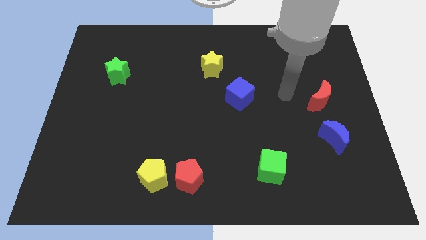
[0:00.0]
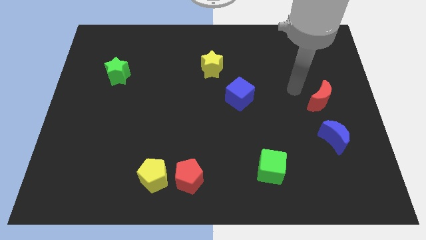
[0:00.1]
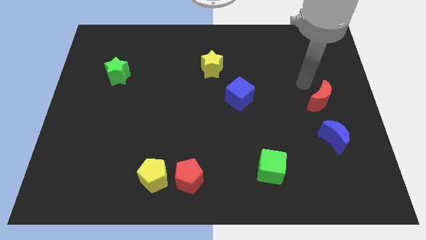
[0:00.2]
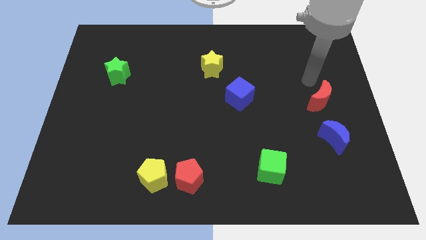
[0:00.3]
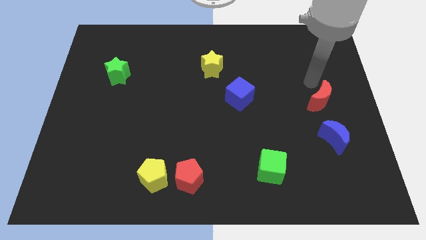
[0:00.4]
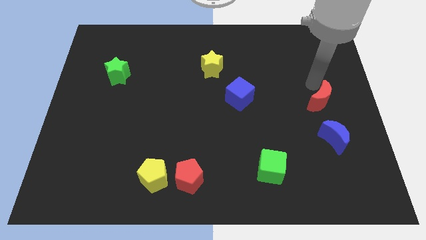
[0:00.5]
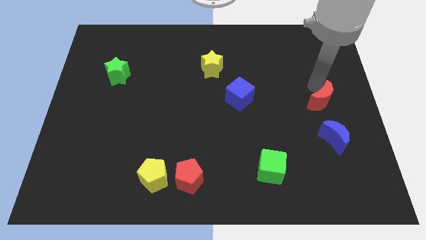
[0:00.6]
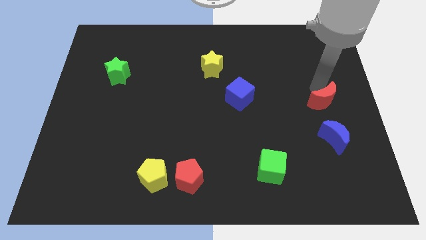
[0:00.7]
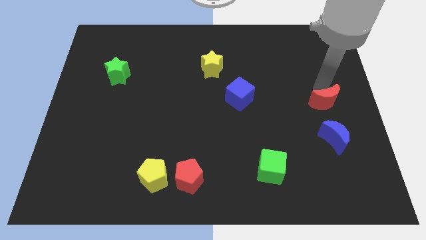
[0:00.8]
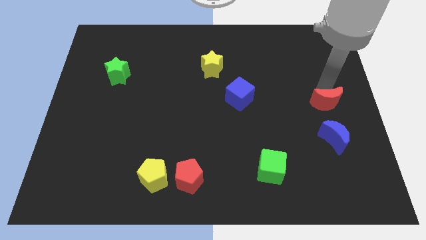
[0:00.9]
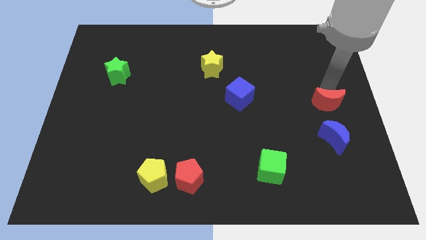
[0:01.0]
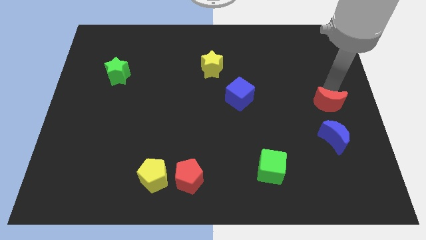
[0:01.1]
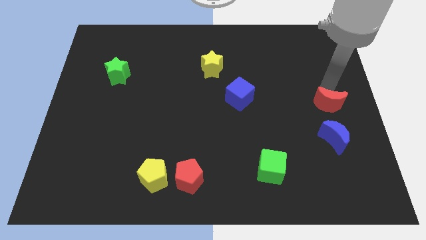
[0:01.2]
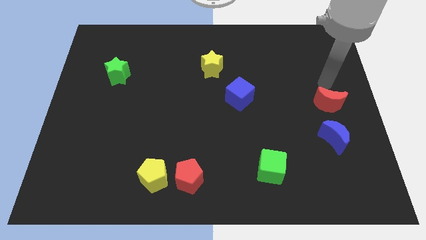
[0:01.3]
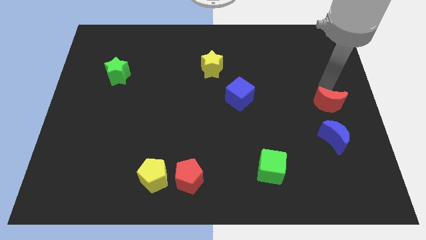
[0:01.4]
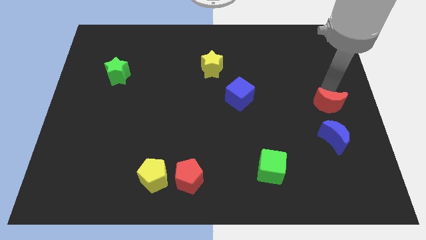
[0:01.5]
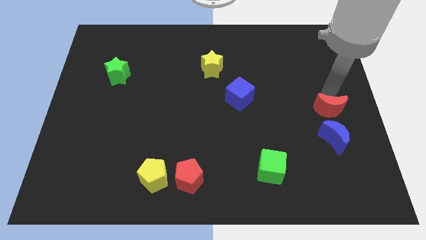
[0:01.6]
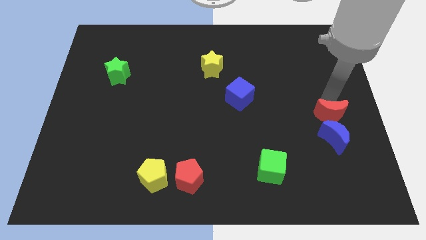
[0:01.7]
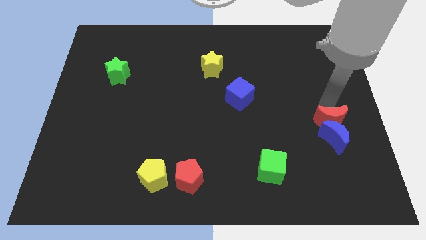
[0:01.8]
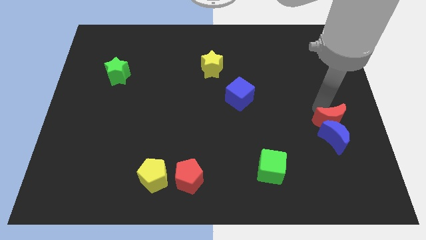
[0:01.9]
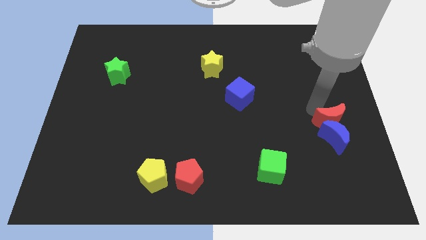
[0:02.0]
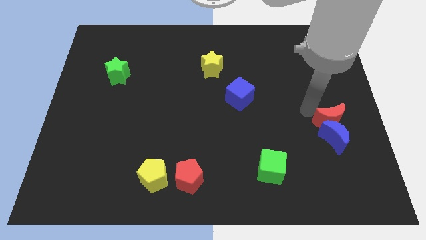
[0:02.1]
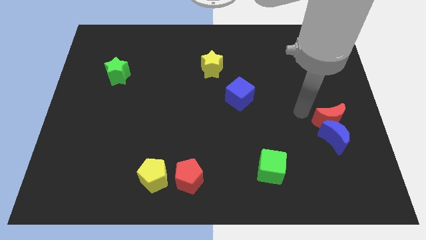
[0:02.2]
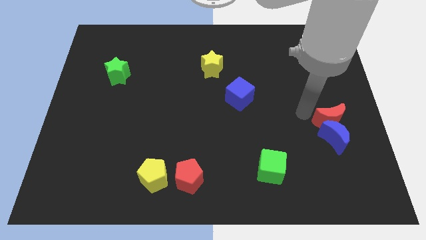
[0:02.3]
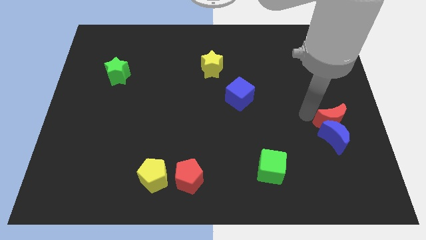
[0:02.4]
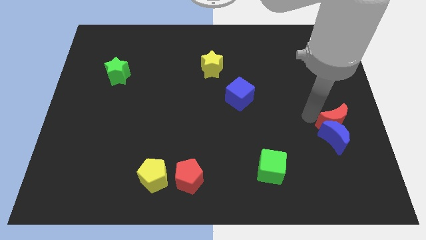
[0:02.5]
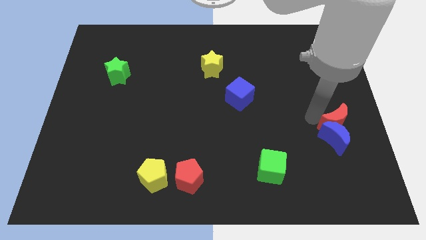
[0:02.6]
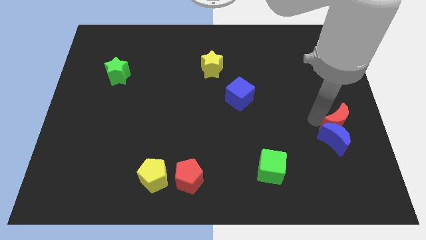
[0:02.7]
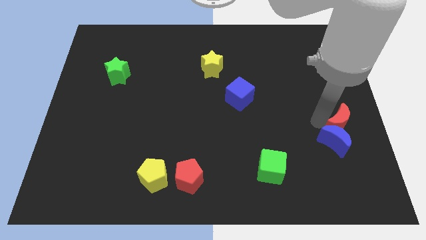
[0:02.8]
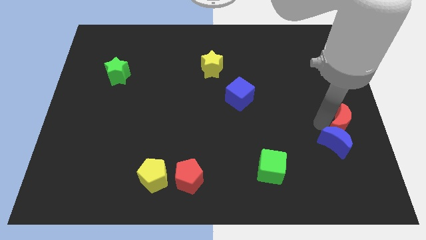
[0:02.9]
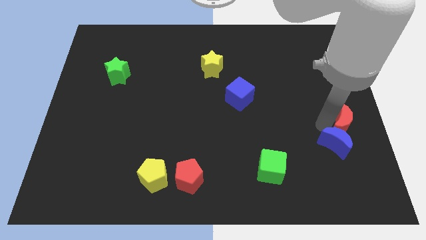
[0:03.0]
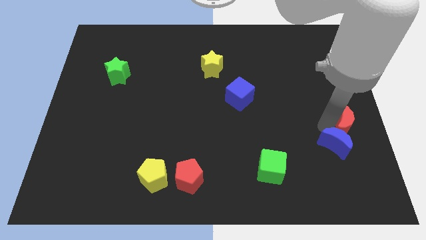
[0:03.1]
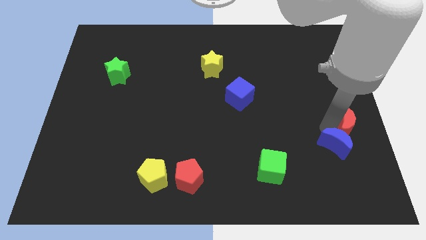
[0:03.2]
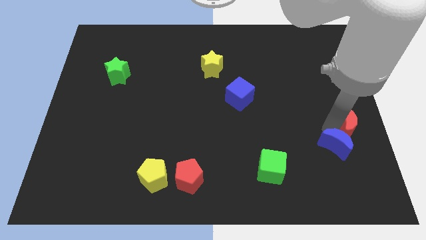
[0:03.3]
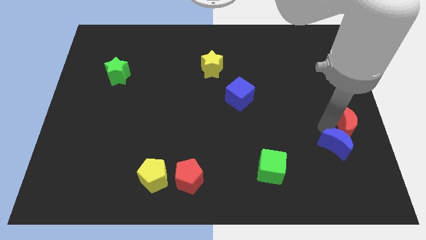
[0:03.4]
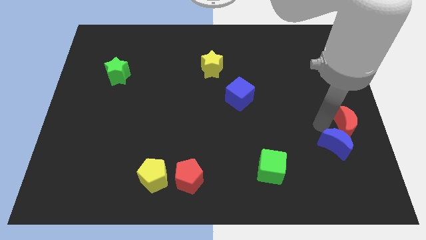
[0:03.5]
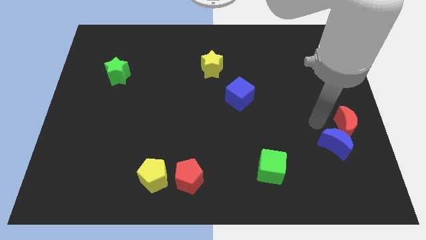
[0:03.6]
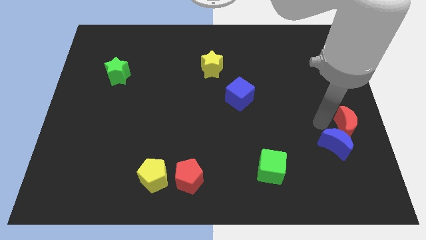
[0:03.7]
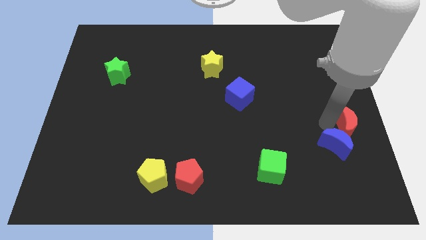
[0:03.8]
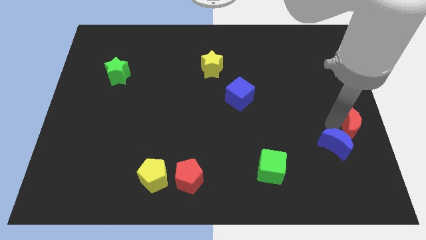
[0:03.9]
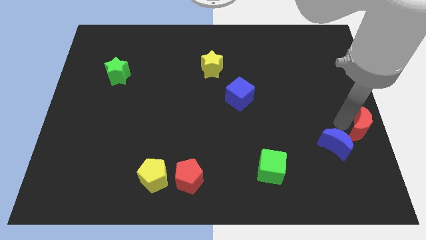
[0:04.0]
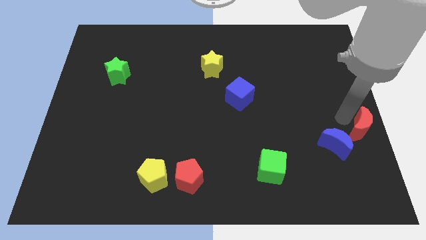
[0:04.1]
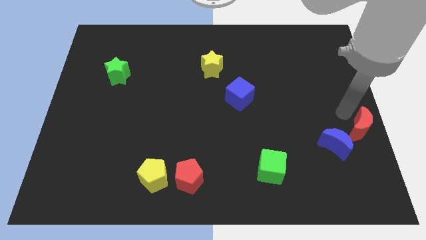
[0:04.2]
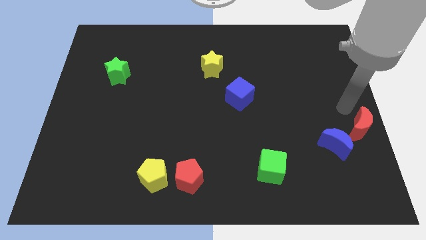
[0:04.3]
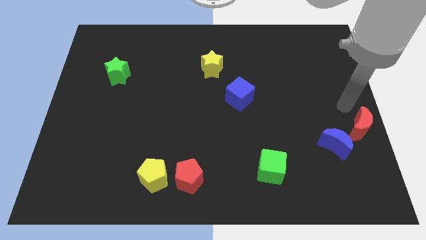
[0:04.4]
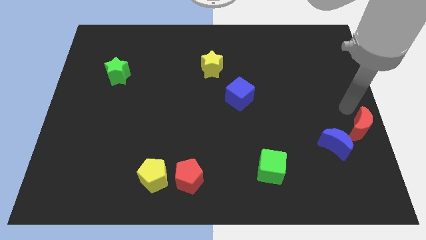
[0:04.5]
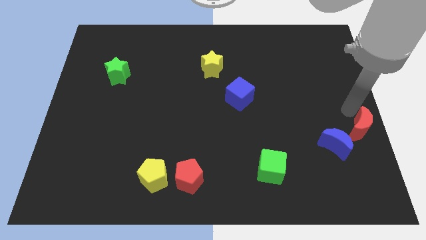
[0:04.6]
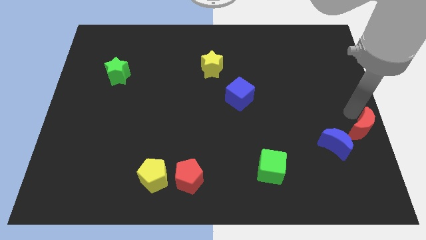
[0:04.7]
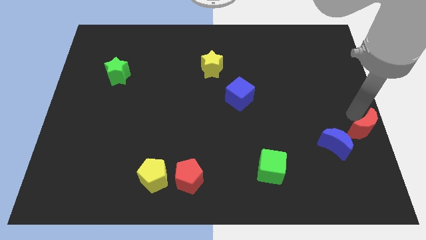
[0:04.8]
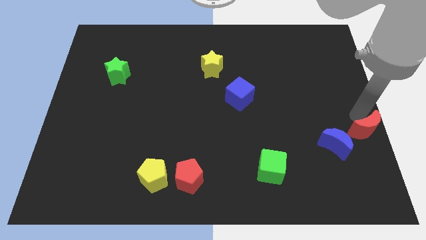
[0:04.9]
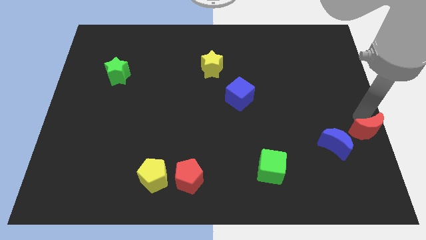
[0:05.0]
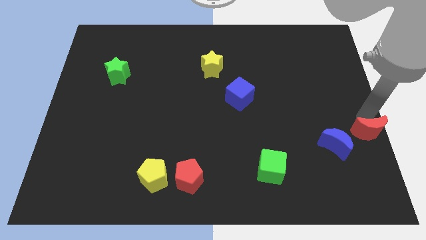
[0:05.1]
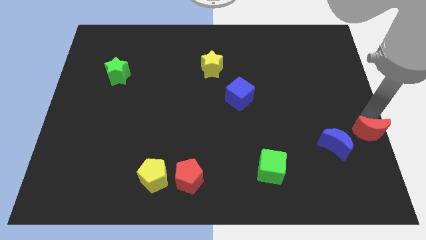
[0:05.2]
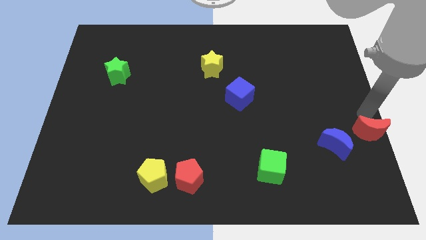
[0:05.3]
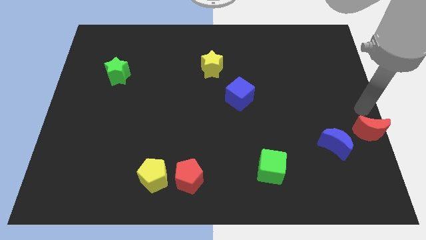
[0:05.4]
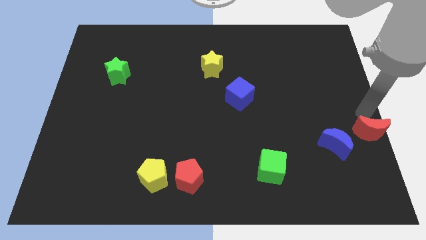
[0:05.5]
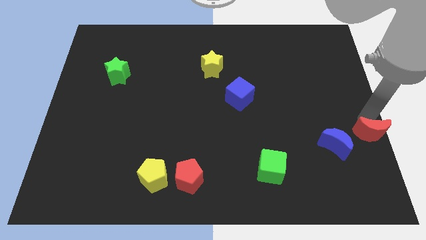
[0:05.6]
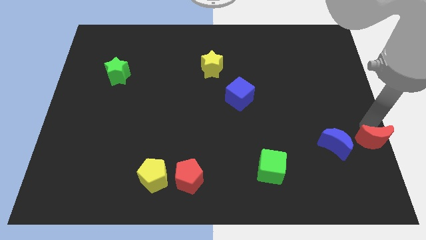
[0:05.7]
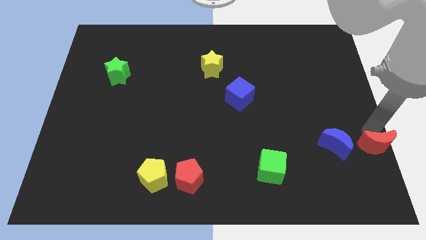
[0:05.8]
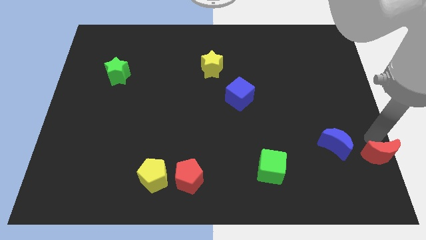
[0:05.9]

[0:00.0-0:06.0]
put the red moon to the lower right corner
